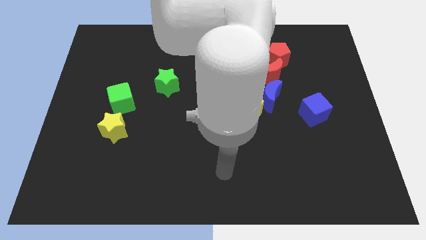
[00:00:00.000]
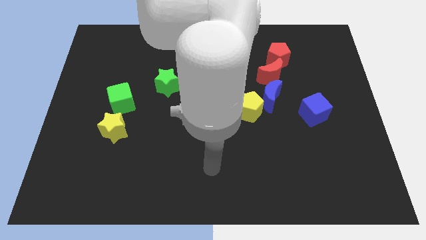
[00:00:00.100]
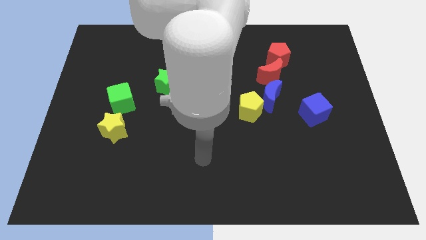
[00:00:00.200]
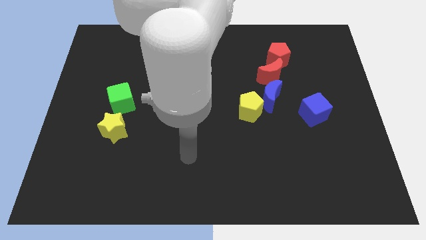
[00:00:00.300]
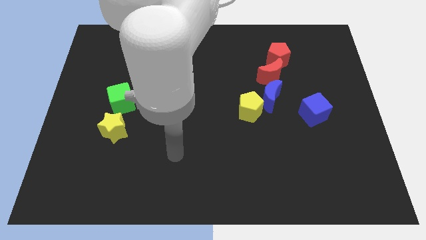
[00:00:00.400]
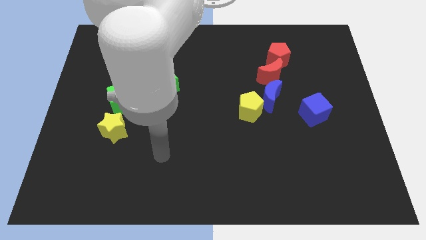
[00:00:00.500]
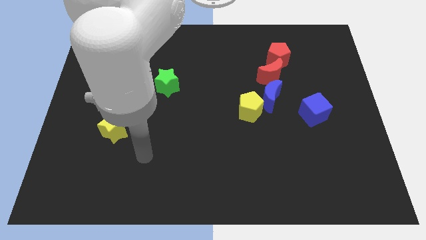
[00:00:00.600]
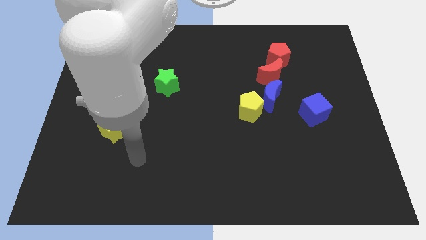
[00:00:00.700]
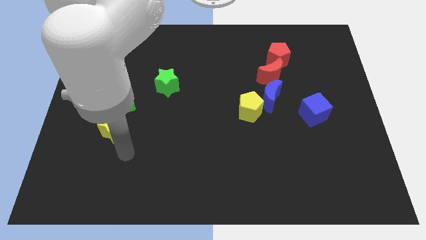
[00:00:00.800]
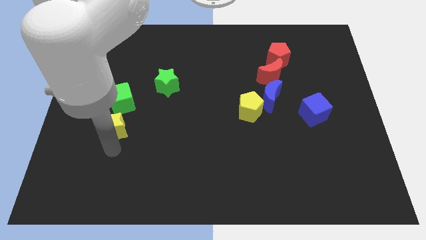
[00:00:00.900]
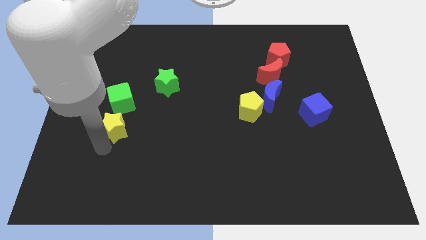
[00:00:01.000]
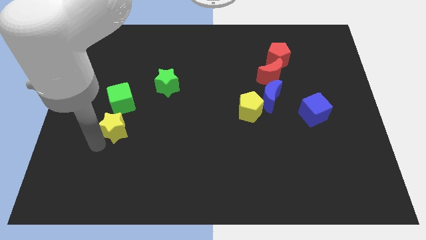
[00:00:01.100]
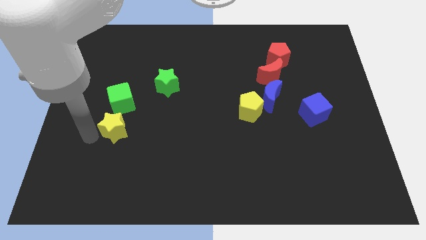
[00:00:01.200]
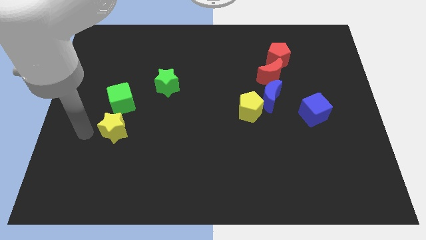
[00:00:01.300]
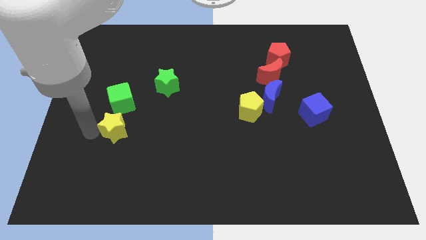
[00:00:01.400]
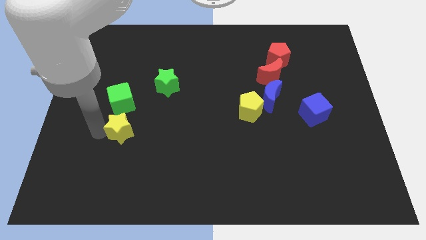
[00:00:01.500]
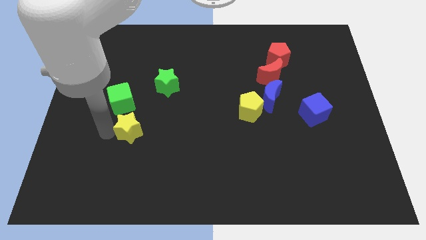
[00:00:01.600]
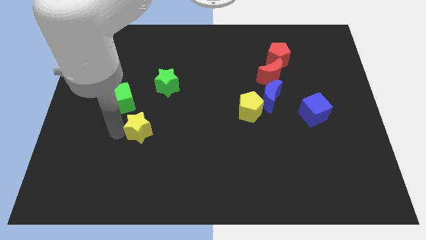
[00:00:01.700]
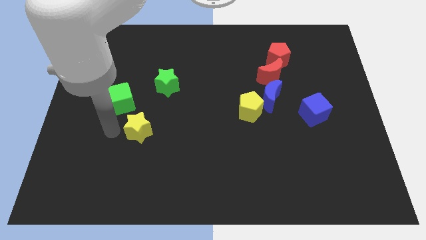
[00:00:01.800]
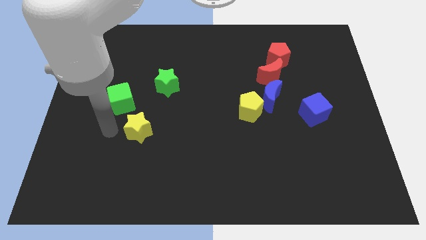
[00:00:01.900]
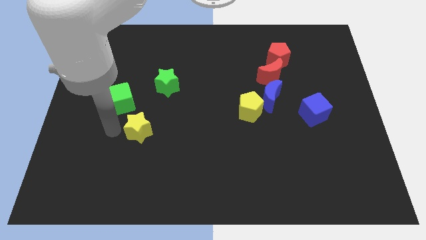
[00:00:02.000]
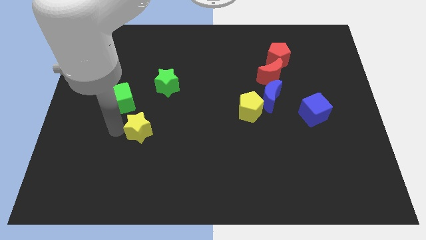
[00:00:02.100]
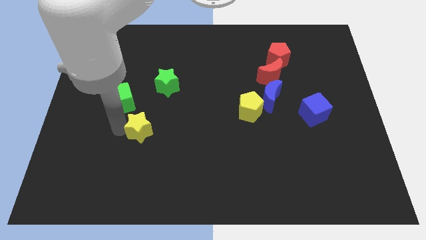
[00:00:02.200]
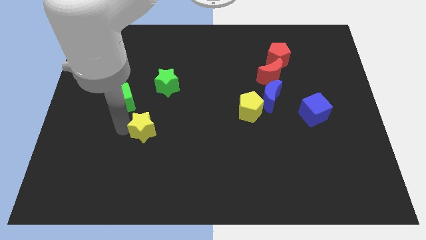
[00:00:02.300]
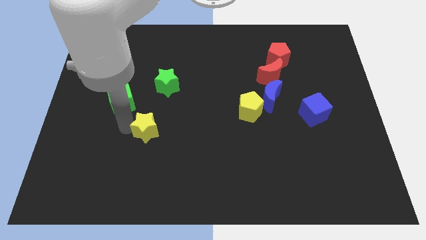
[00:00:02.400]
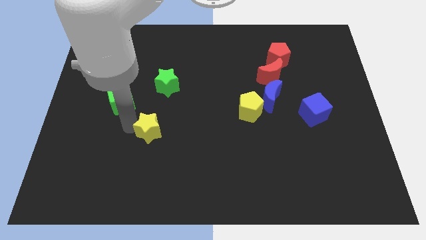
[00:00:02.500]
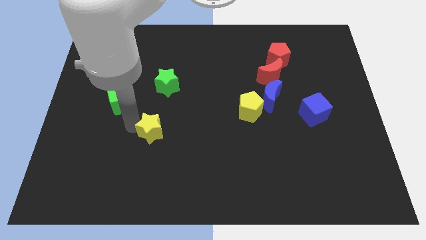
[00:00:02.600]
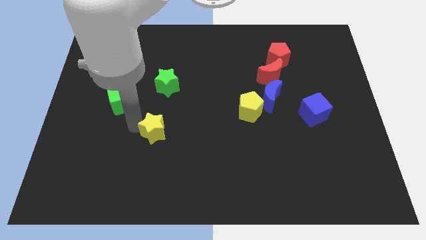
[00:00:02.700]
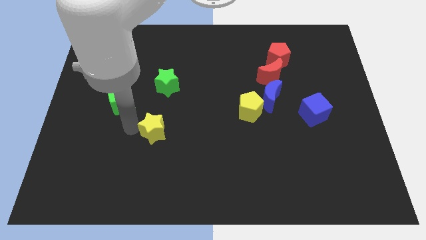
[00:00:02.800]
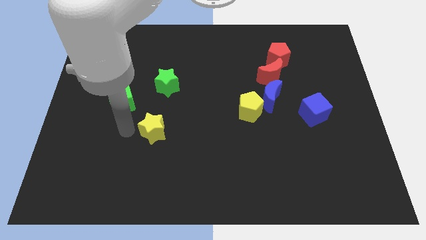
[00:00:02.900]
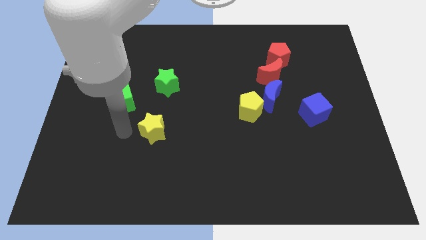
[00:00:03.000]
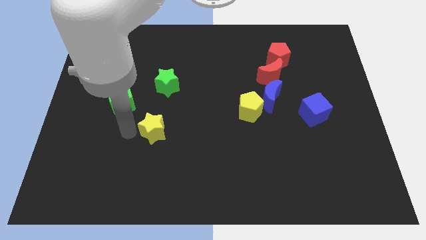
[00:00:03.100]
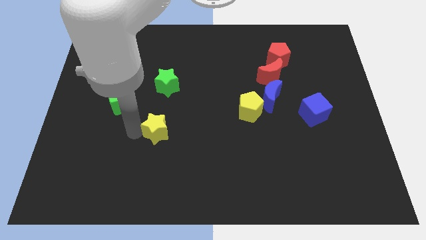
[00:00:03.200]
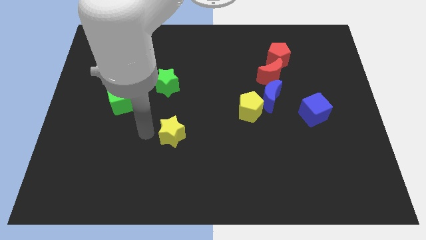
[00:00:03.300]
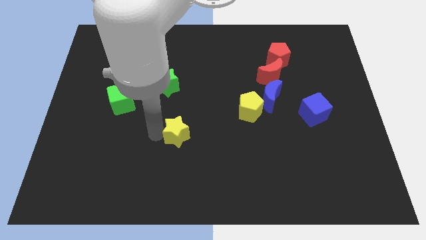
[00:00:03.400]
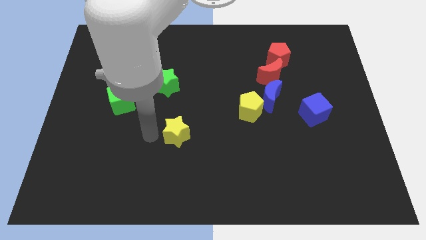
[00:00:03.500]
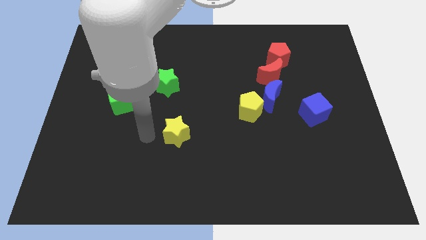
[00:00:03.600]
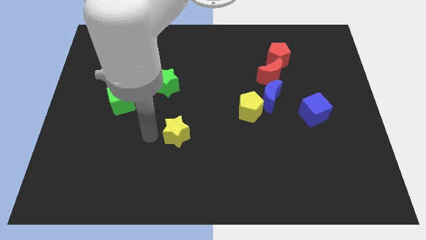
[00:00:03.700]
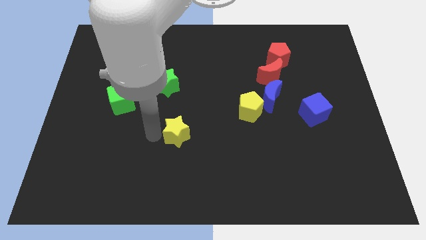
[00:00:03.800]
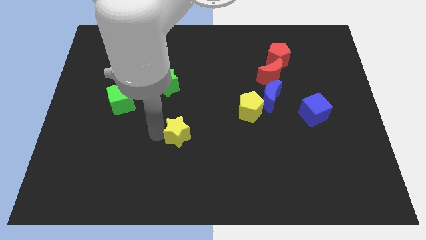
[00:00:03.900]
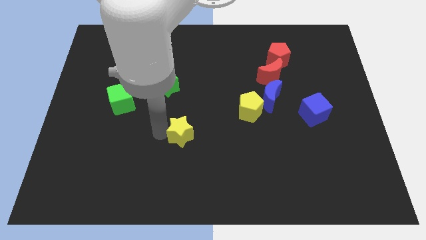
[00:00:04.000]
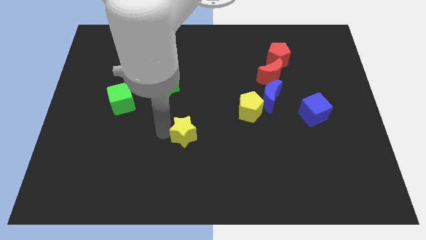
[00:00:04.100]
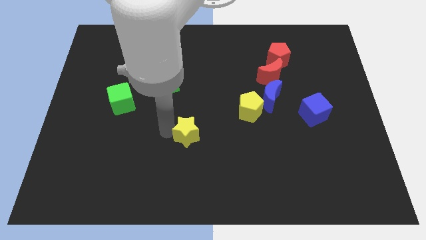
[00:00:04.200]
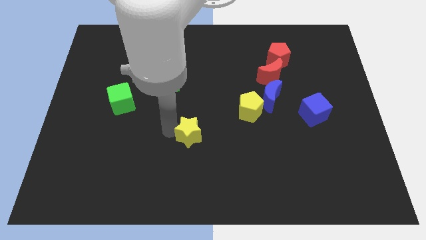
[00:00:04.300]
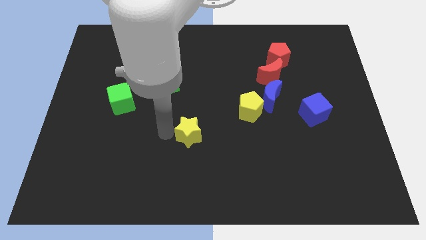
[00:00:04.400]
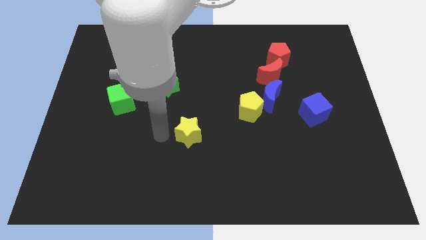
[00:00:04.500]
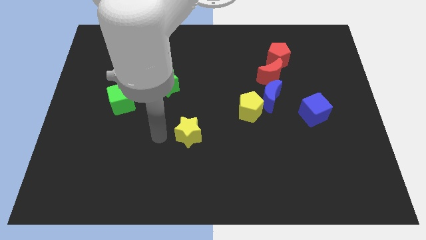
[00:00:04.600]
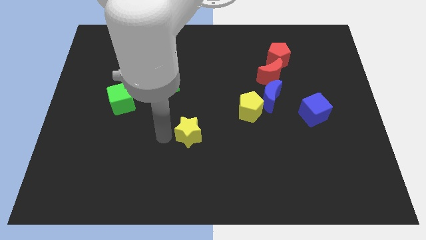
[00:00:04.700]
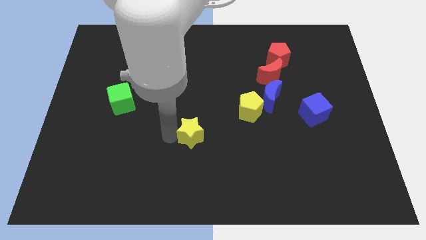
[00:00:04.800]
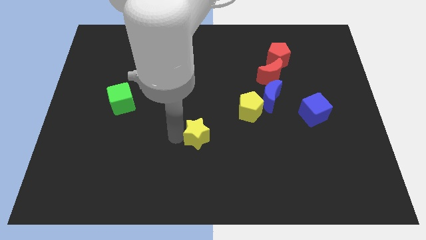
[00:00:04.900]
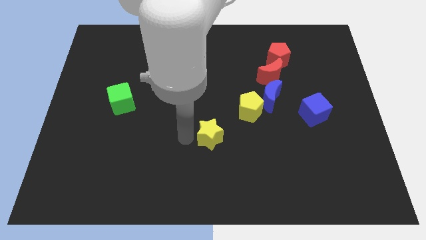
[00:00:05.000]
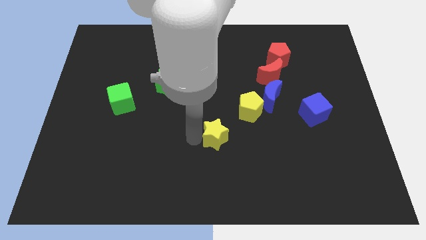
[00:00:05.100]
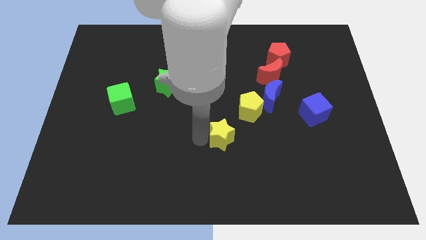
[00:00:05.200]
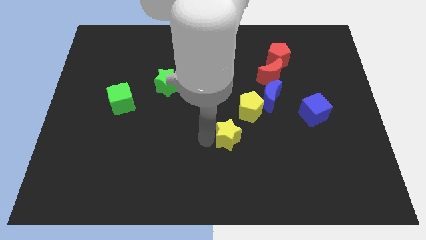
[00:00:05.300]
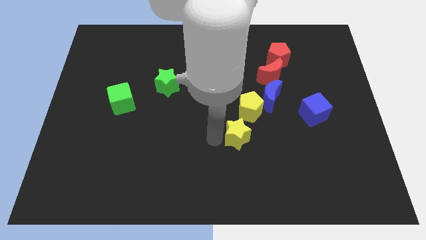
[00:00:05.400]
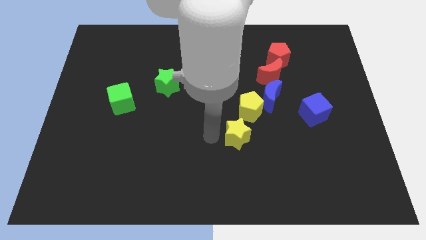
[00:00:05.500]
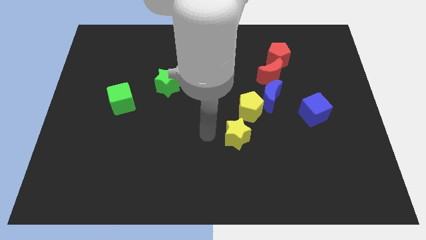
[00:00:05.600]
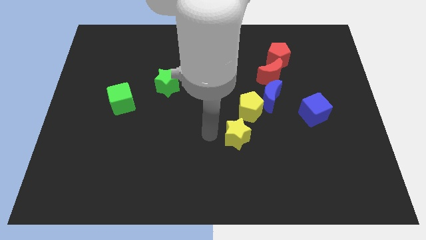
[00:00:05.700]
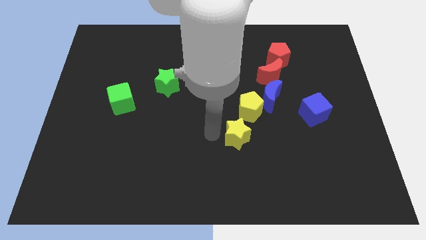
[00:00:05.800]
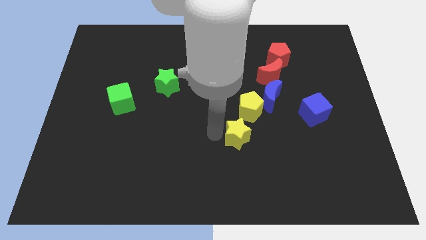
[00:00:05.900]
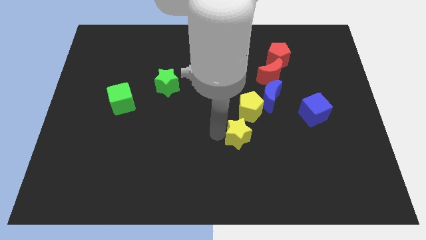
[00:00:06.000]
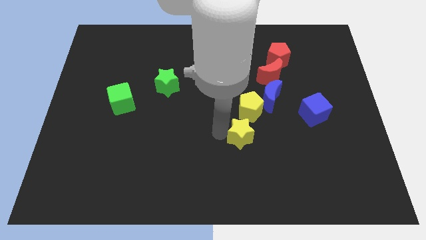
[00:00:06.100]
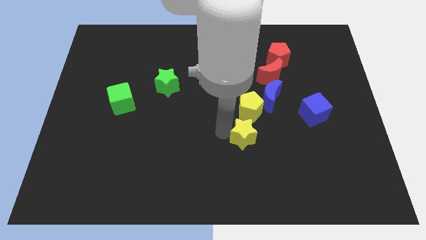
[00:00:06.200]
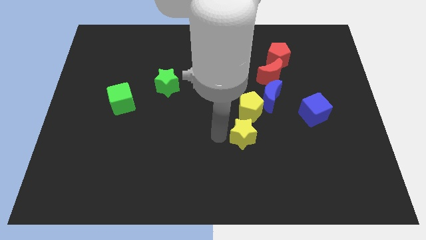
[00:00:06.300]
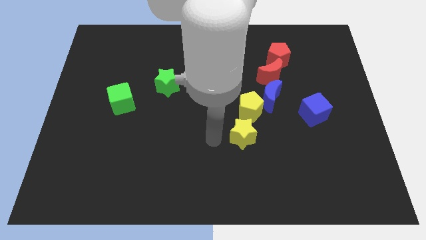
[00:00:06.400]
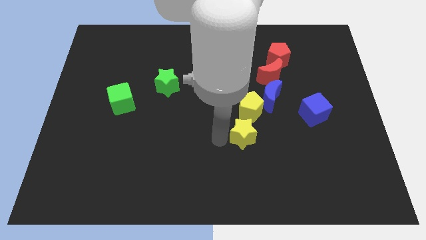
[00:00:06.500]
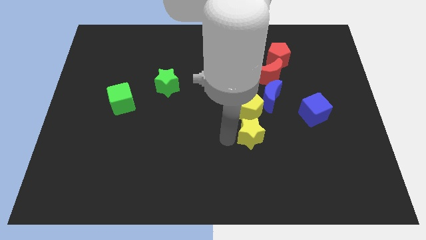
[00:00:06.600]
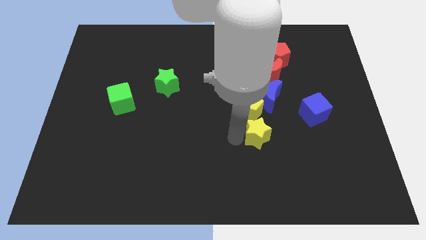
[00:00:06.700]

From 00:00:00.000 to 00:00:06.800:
move the yellow star to the bottom side of the blue moon

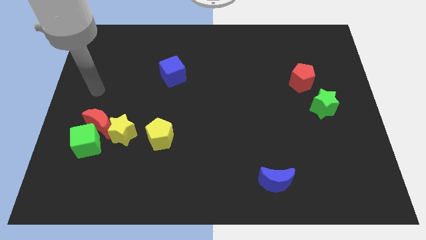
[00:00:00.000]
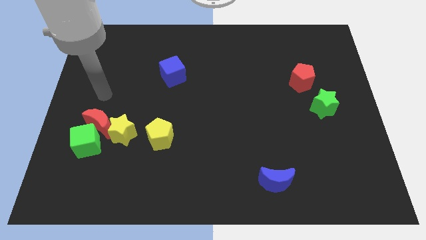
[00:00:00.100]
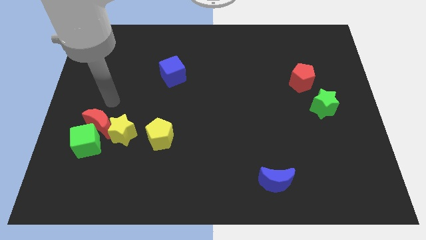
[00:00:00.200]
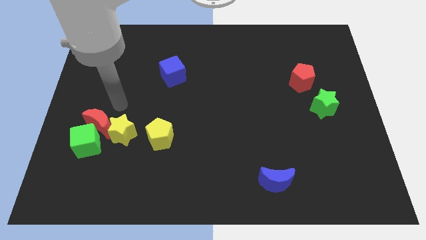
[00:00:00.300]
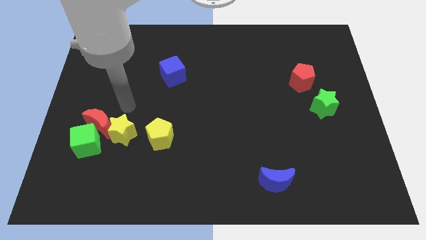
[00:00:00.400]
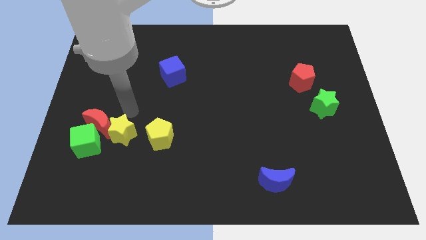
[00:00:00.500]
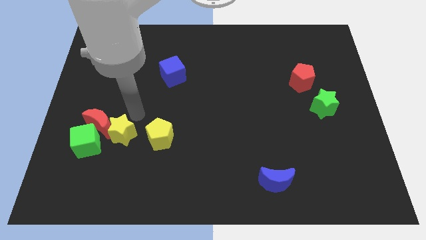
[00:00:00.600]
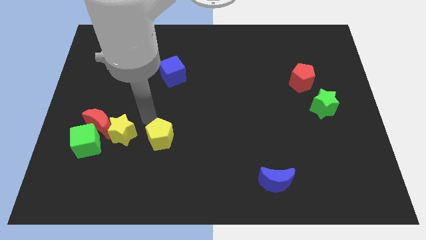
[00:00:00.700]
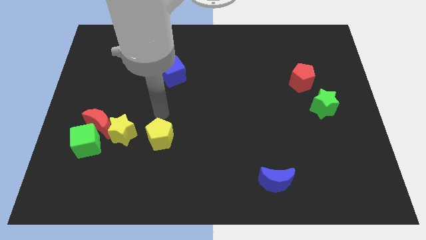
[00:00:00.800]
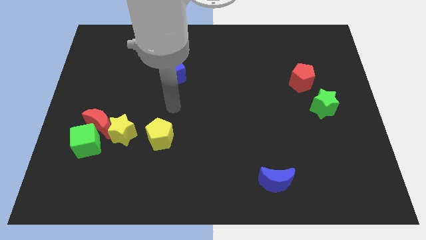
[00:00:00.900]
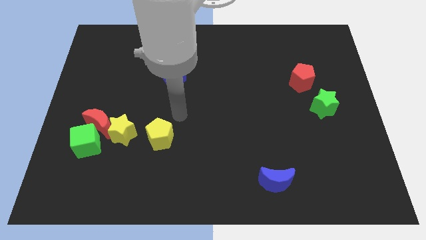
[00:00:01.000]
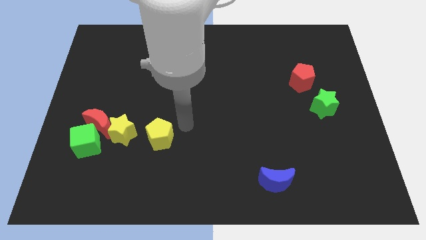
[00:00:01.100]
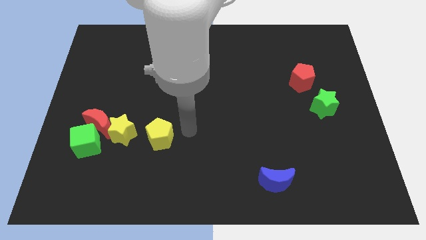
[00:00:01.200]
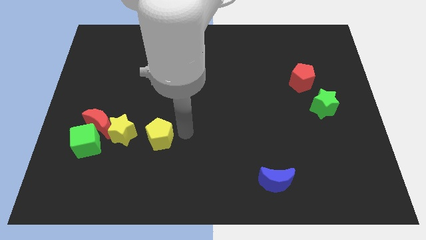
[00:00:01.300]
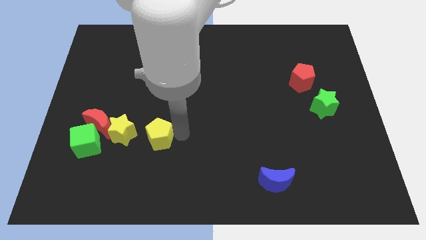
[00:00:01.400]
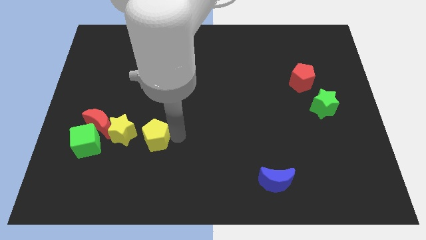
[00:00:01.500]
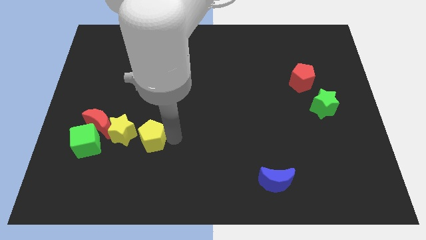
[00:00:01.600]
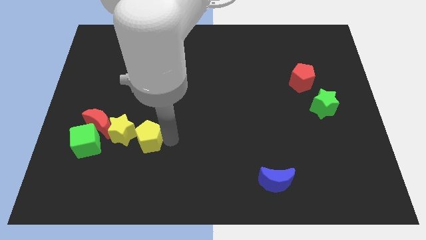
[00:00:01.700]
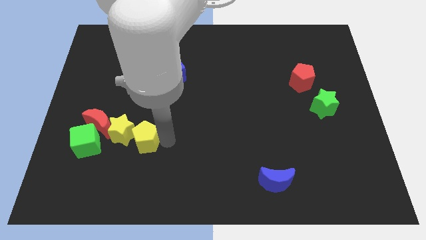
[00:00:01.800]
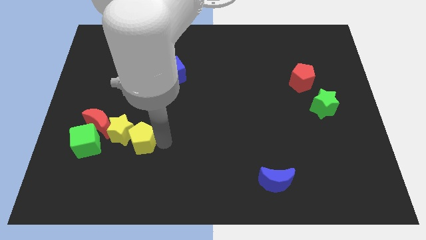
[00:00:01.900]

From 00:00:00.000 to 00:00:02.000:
put the yellow pentagon to the bottom right of the red moon
